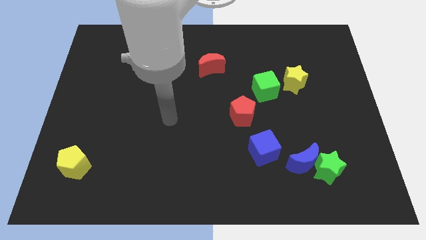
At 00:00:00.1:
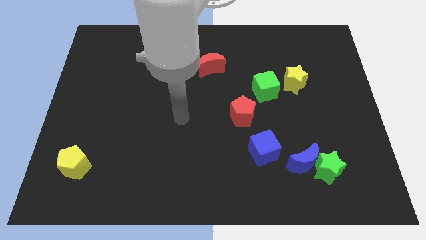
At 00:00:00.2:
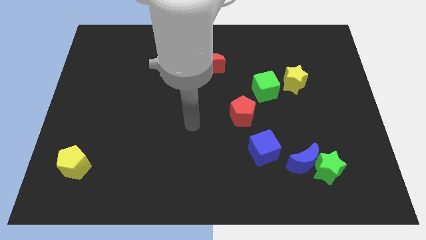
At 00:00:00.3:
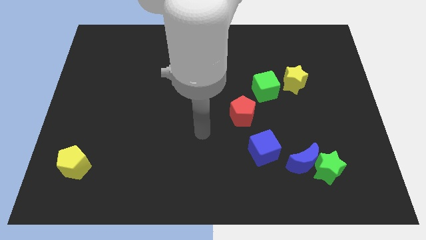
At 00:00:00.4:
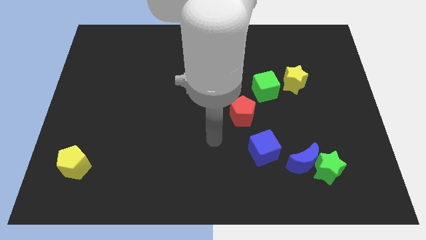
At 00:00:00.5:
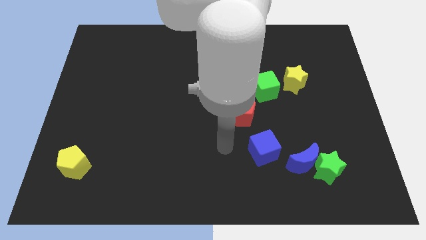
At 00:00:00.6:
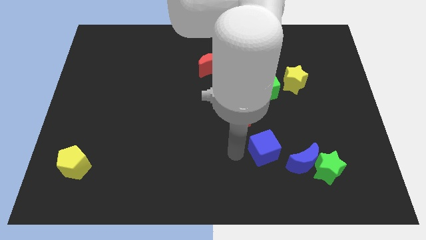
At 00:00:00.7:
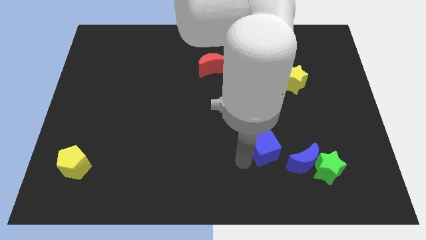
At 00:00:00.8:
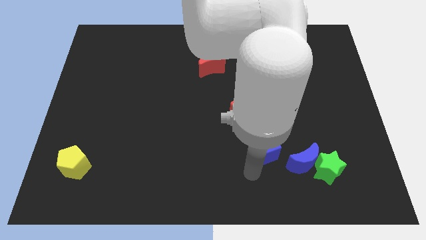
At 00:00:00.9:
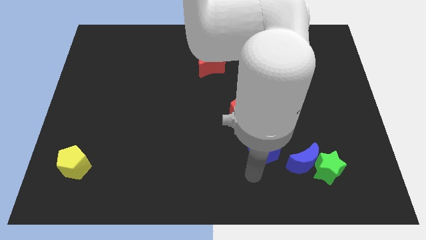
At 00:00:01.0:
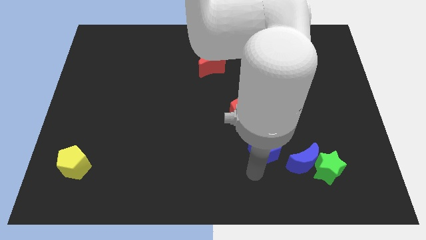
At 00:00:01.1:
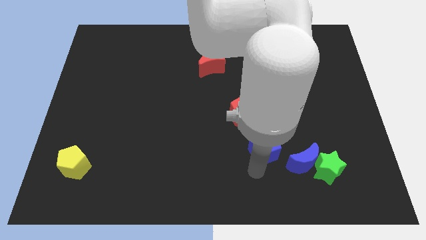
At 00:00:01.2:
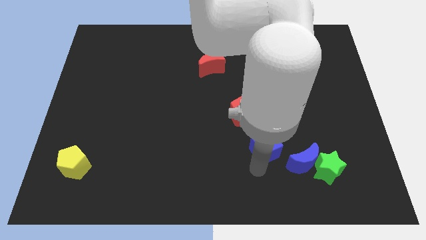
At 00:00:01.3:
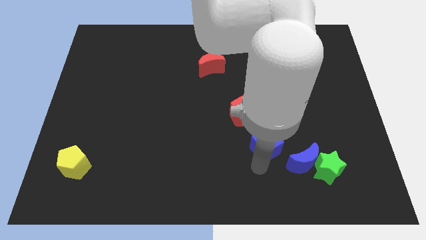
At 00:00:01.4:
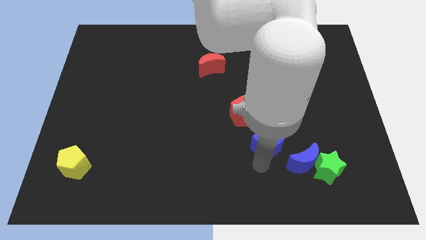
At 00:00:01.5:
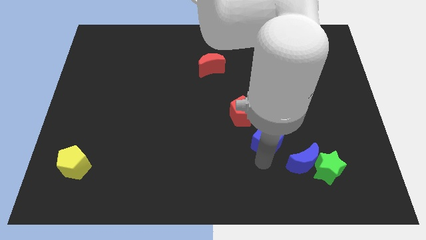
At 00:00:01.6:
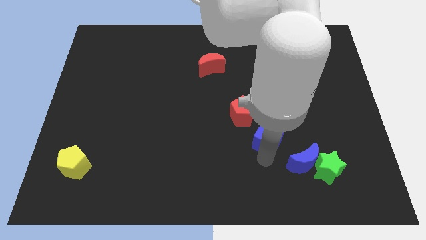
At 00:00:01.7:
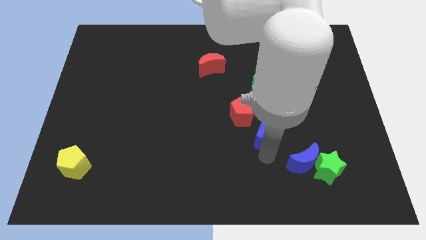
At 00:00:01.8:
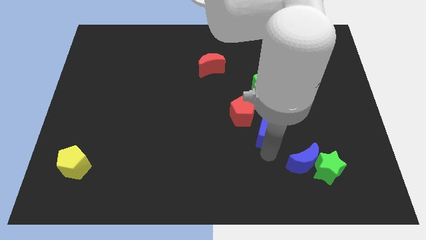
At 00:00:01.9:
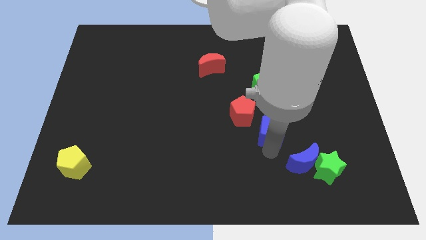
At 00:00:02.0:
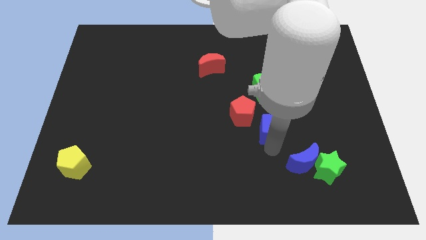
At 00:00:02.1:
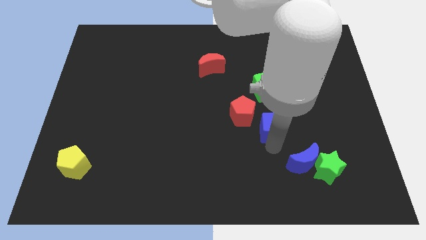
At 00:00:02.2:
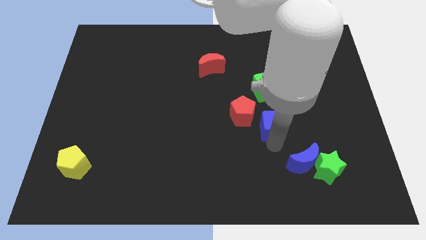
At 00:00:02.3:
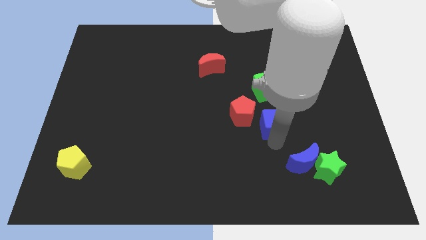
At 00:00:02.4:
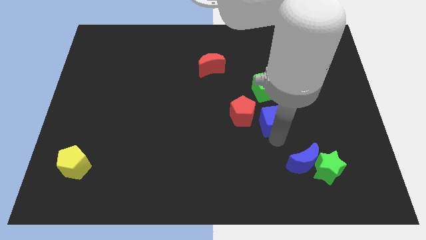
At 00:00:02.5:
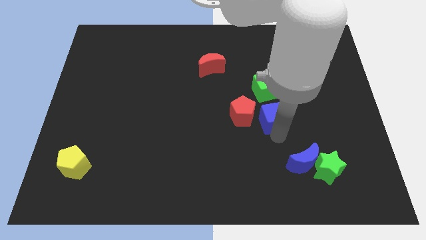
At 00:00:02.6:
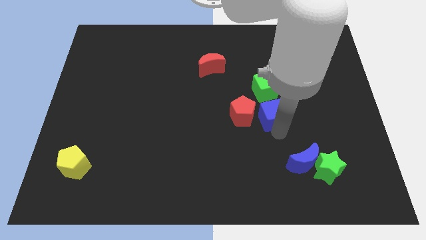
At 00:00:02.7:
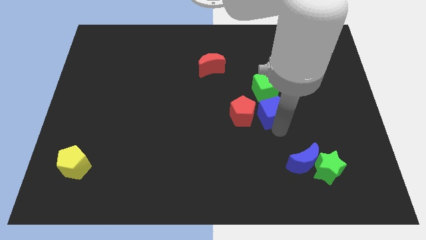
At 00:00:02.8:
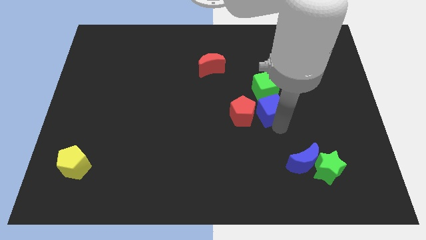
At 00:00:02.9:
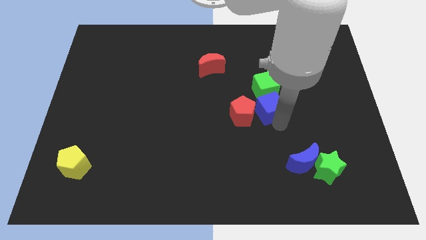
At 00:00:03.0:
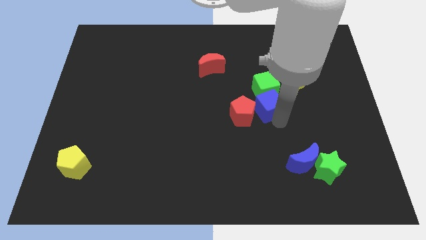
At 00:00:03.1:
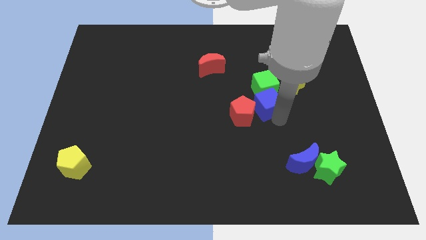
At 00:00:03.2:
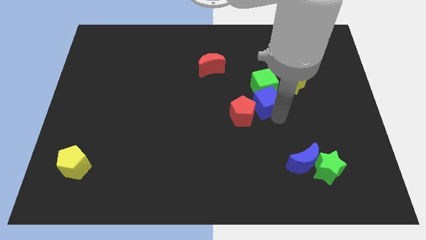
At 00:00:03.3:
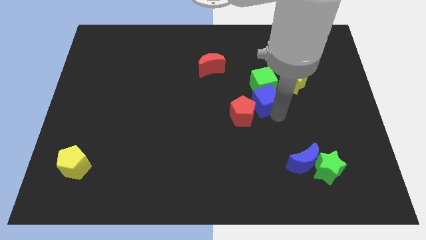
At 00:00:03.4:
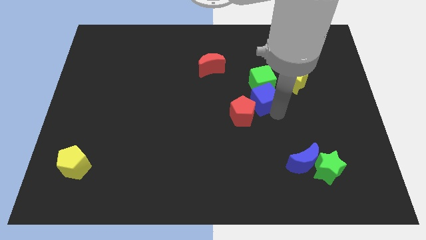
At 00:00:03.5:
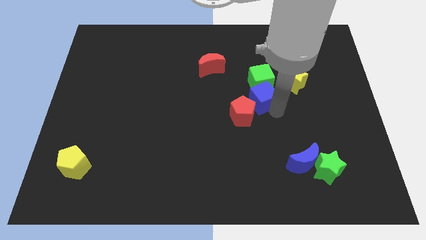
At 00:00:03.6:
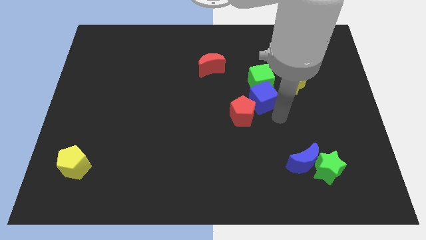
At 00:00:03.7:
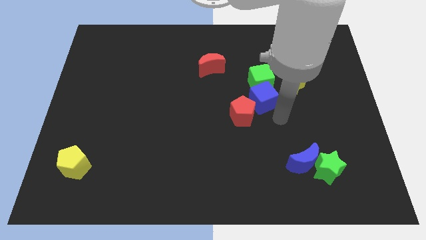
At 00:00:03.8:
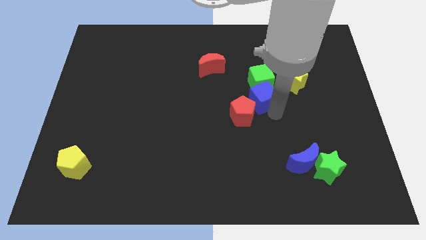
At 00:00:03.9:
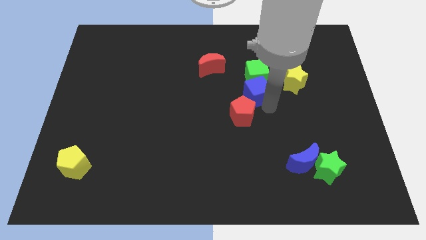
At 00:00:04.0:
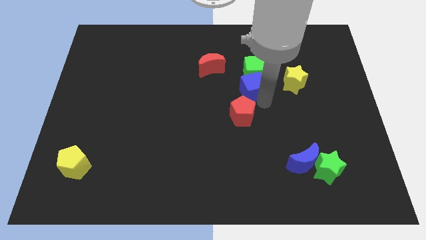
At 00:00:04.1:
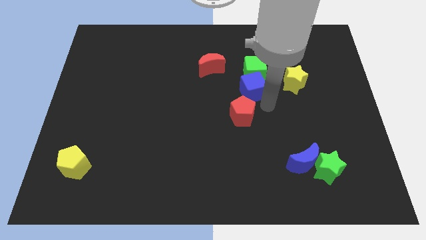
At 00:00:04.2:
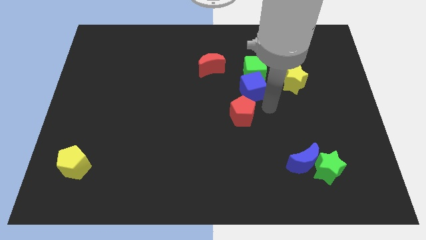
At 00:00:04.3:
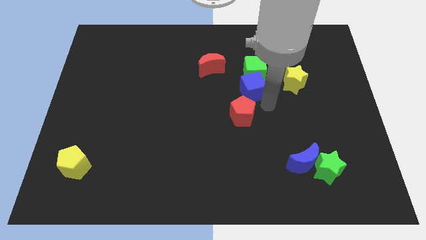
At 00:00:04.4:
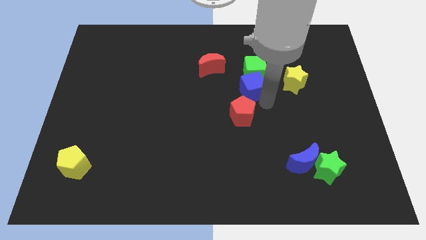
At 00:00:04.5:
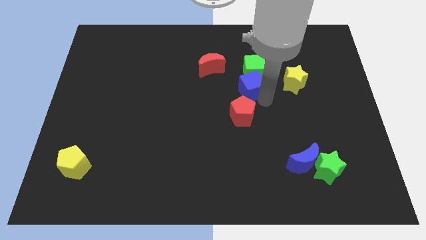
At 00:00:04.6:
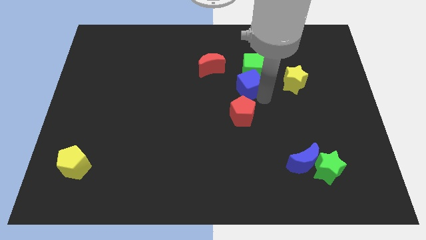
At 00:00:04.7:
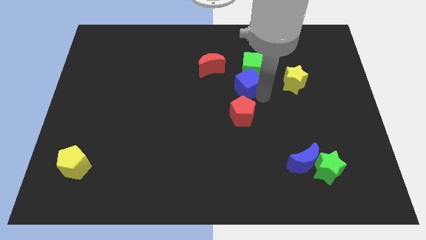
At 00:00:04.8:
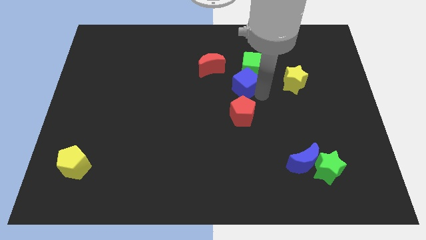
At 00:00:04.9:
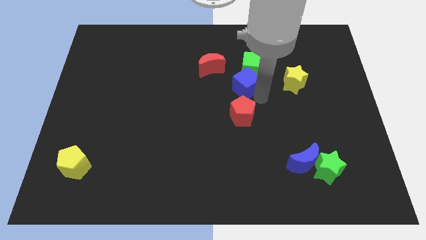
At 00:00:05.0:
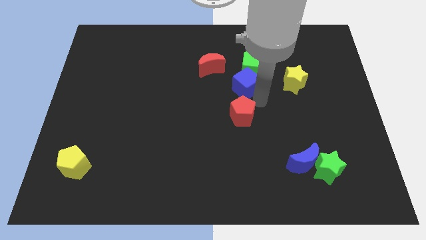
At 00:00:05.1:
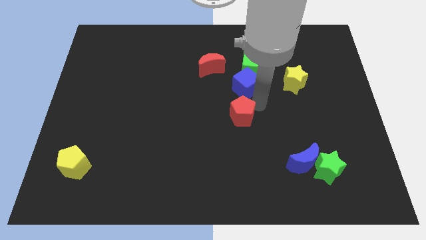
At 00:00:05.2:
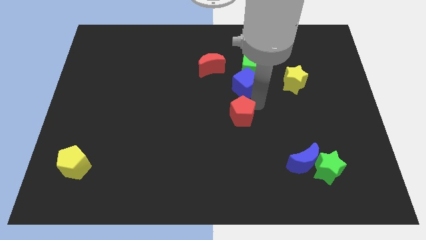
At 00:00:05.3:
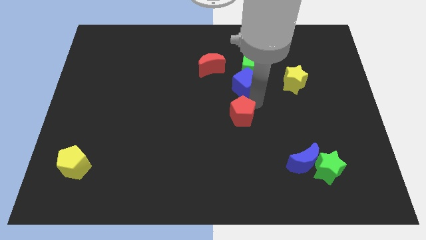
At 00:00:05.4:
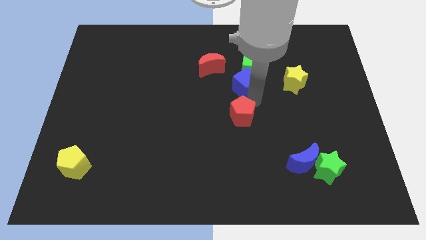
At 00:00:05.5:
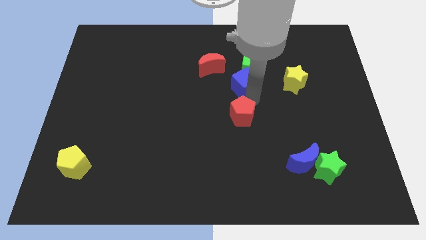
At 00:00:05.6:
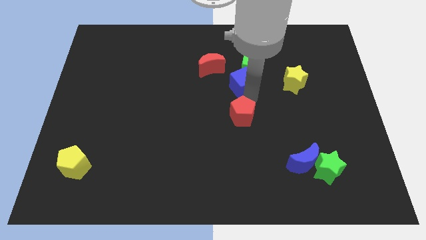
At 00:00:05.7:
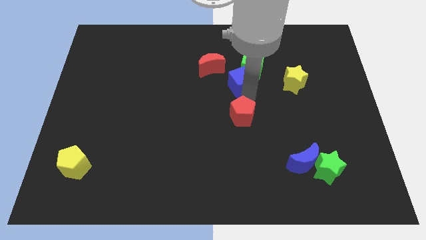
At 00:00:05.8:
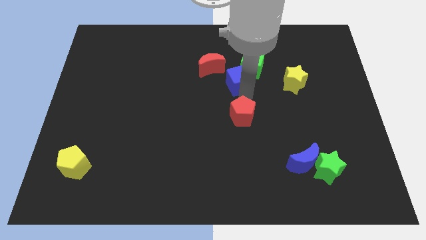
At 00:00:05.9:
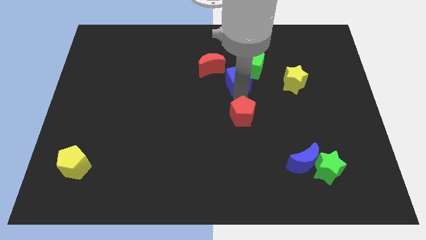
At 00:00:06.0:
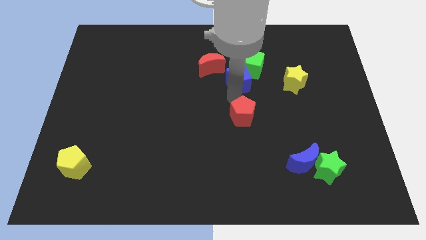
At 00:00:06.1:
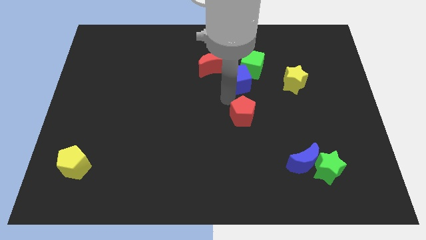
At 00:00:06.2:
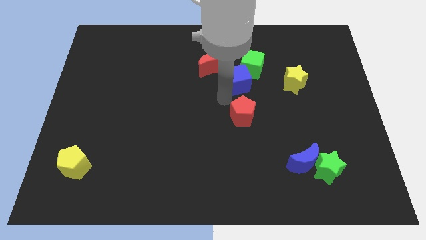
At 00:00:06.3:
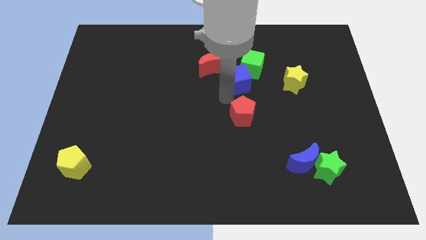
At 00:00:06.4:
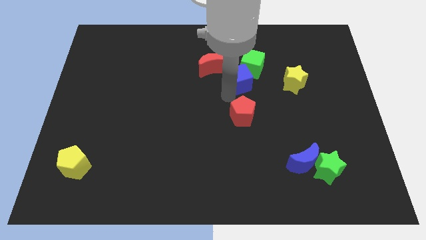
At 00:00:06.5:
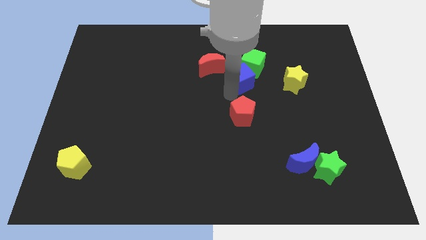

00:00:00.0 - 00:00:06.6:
slide the blue cube just right of the red moon
